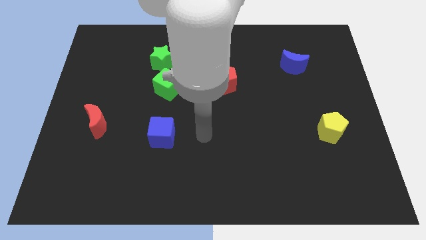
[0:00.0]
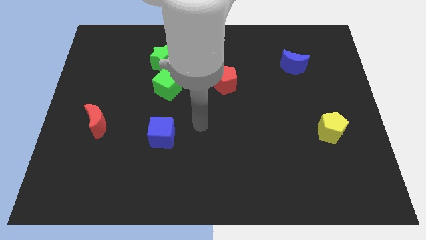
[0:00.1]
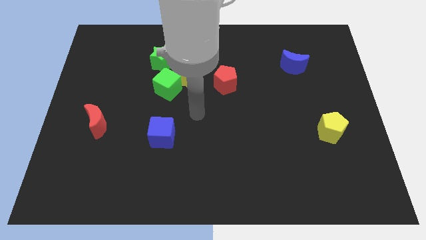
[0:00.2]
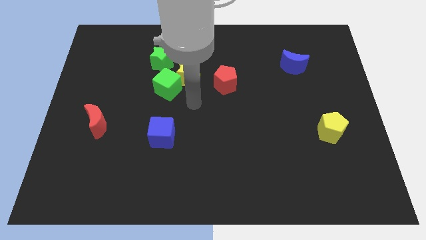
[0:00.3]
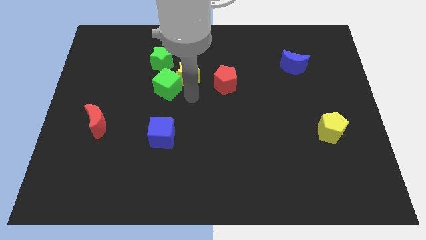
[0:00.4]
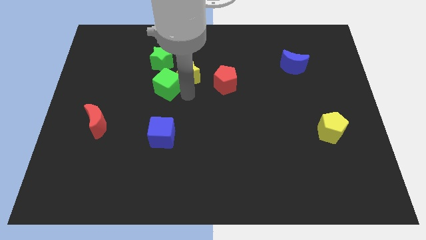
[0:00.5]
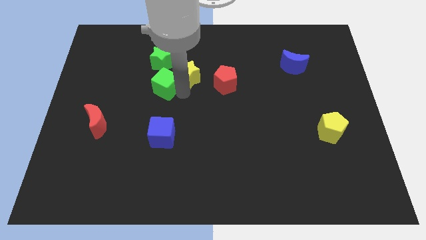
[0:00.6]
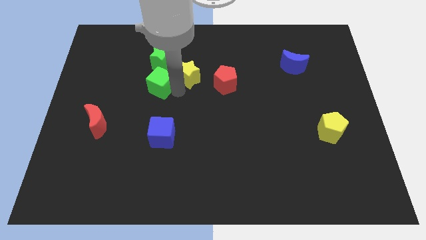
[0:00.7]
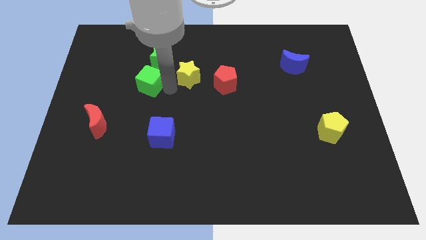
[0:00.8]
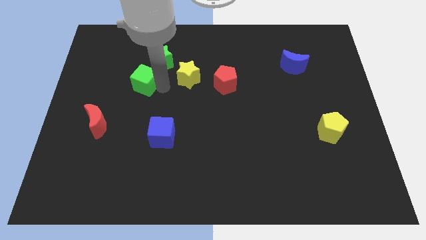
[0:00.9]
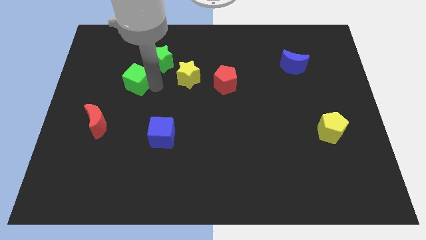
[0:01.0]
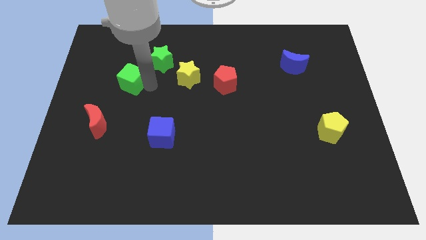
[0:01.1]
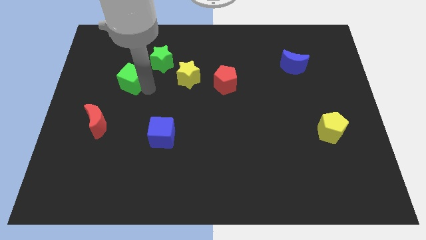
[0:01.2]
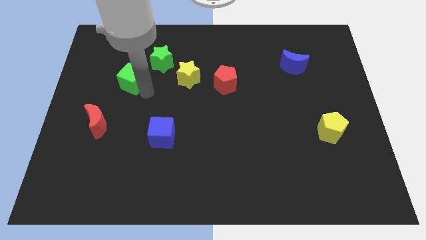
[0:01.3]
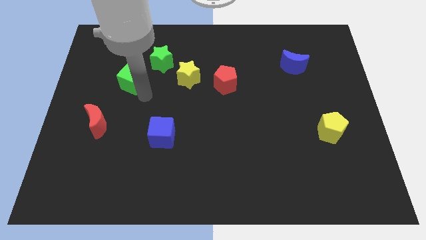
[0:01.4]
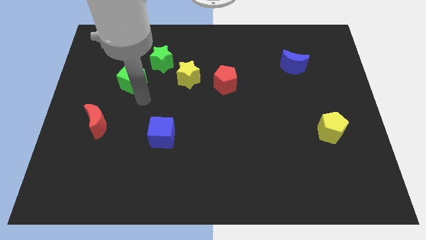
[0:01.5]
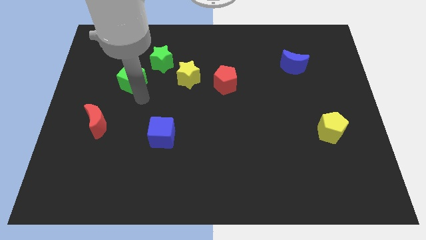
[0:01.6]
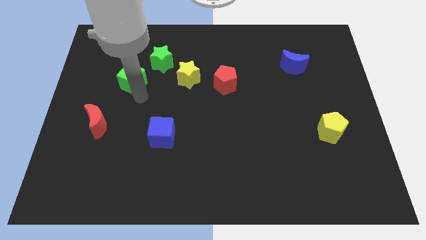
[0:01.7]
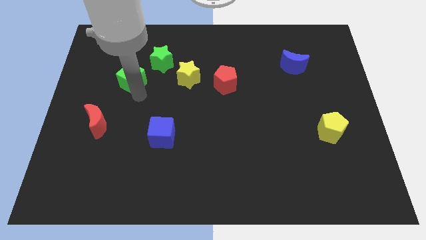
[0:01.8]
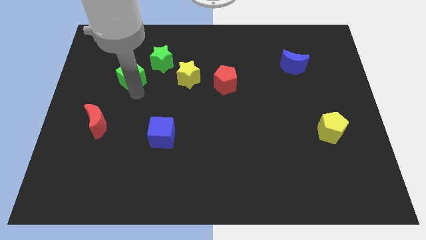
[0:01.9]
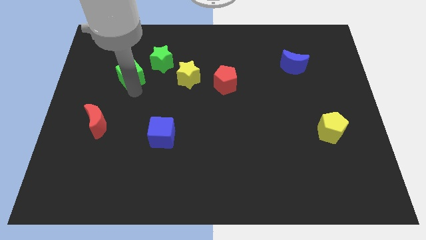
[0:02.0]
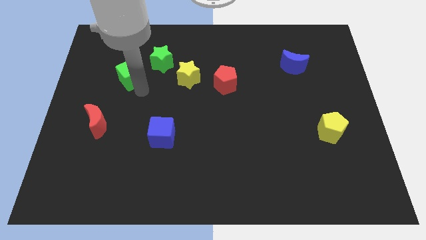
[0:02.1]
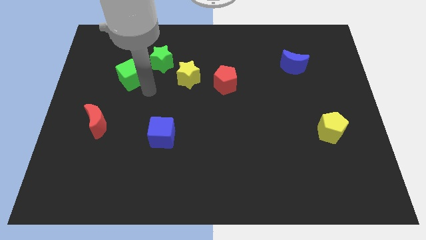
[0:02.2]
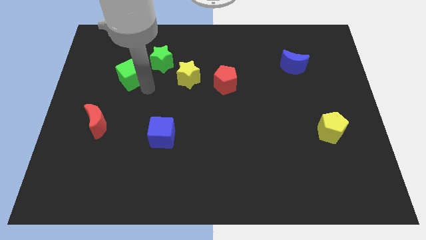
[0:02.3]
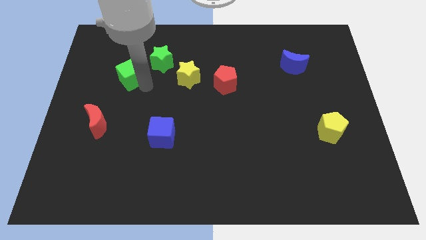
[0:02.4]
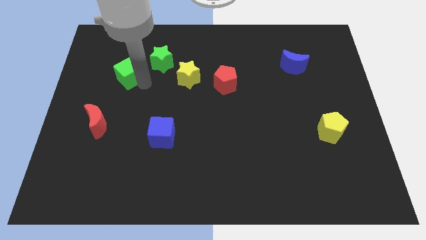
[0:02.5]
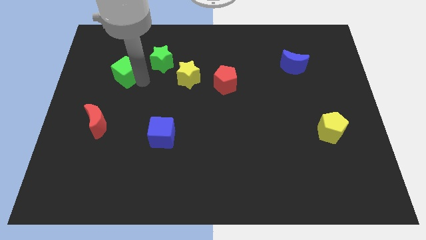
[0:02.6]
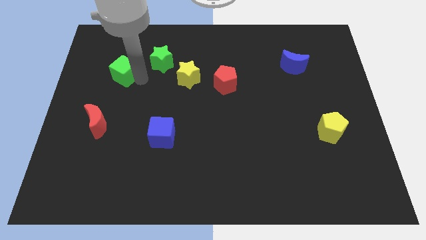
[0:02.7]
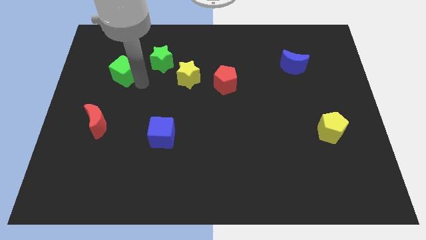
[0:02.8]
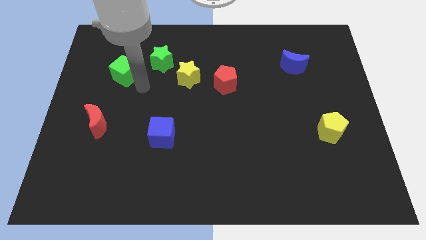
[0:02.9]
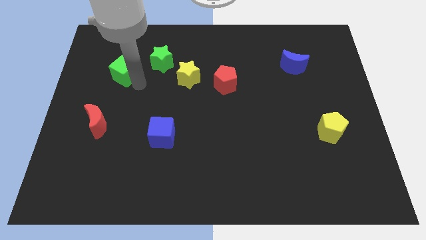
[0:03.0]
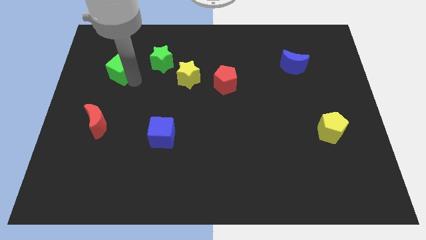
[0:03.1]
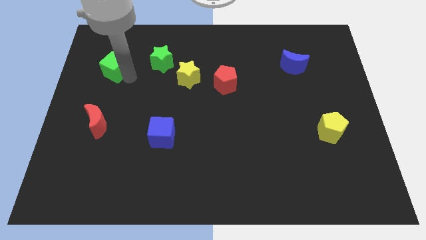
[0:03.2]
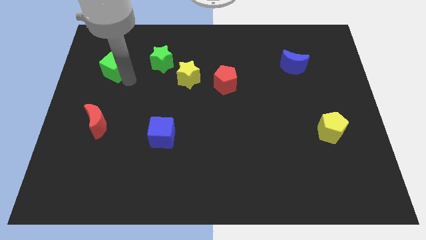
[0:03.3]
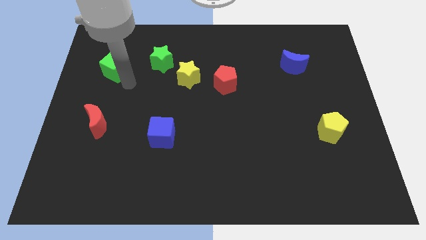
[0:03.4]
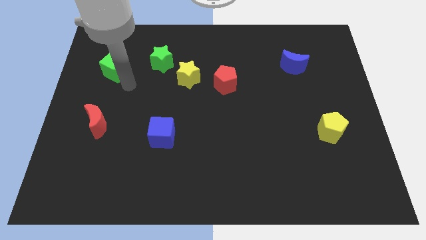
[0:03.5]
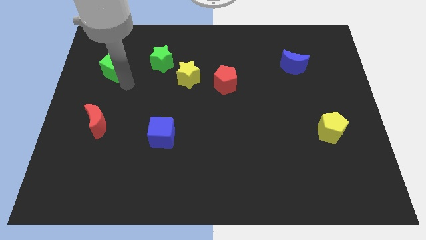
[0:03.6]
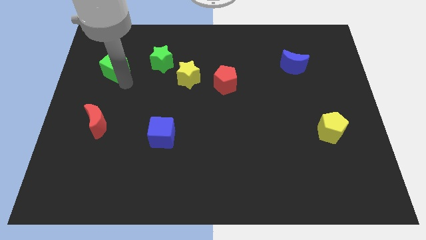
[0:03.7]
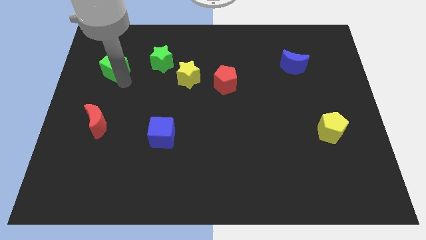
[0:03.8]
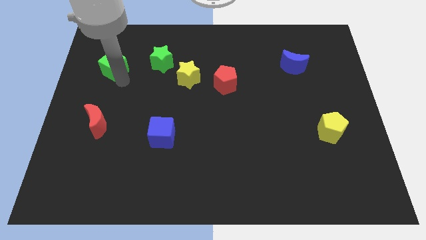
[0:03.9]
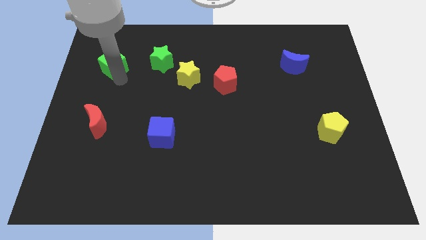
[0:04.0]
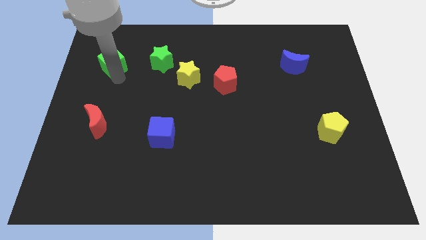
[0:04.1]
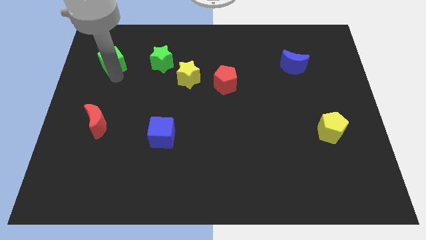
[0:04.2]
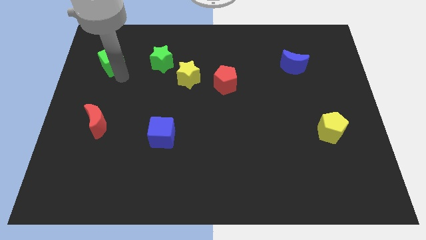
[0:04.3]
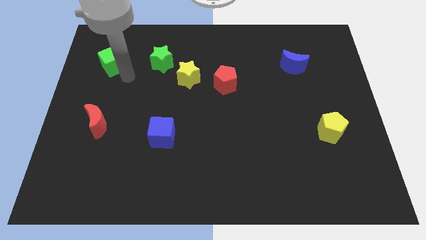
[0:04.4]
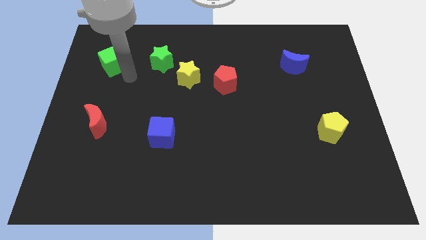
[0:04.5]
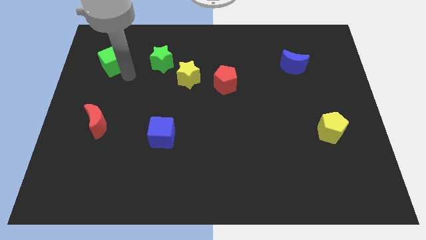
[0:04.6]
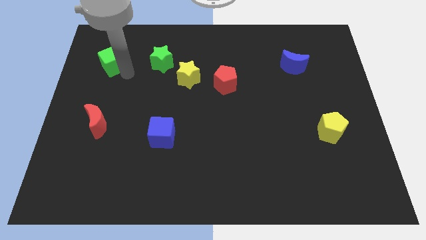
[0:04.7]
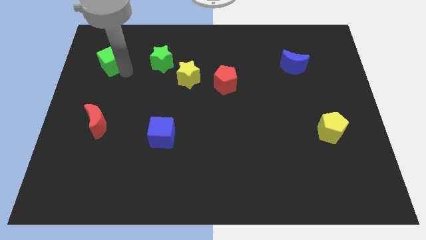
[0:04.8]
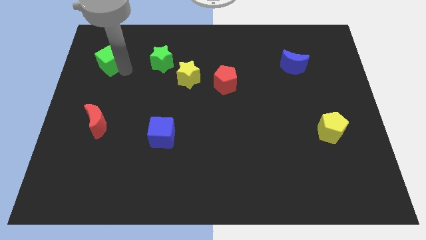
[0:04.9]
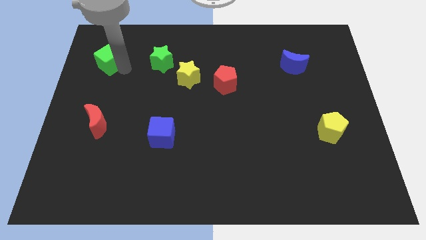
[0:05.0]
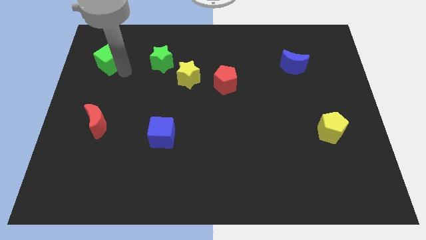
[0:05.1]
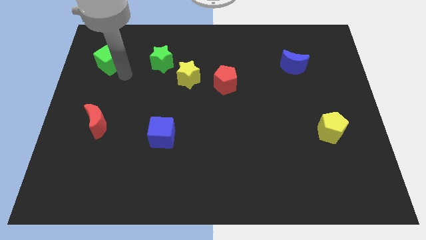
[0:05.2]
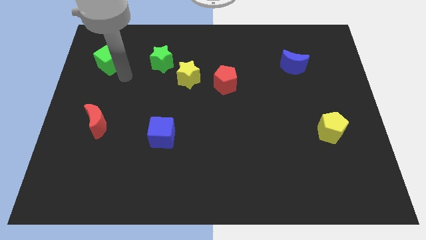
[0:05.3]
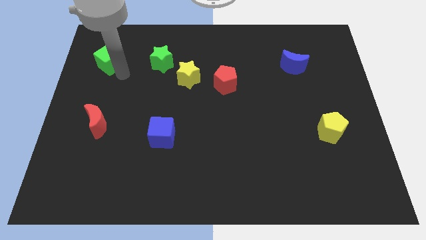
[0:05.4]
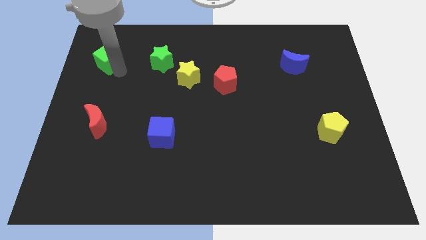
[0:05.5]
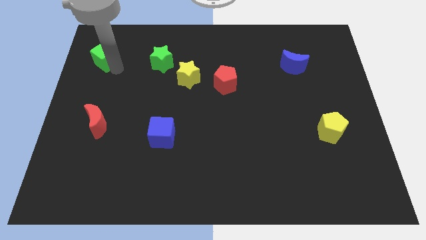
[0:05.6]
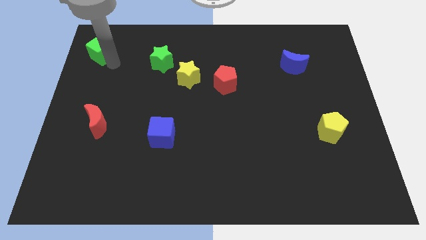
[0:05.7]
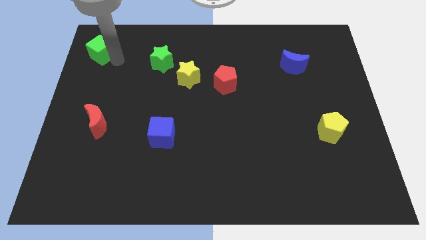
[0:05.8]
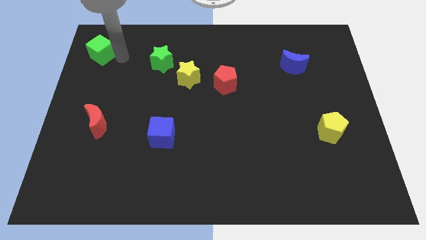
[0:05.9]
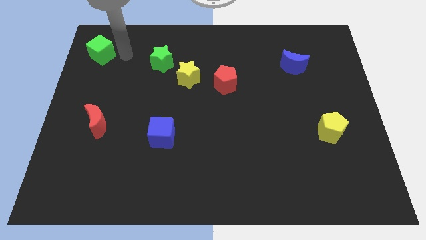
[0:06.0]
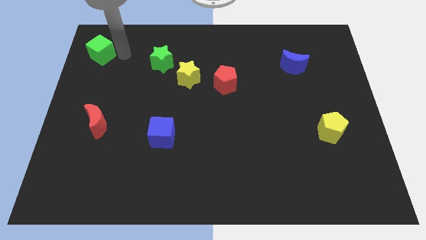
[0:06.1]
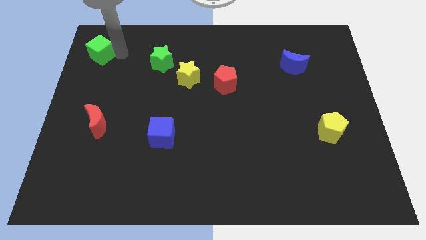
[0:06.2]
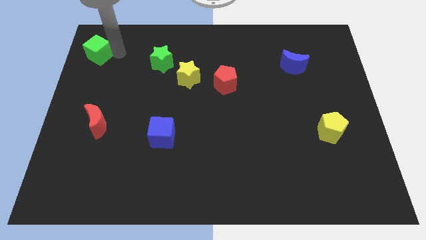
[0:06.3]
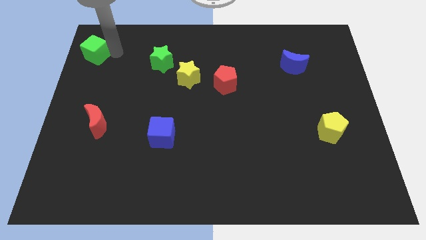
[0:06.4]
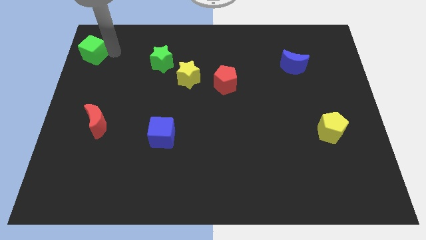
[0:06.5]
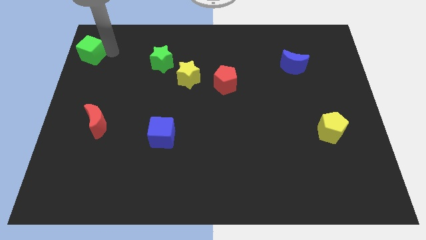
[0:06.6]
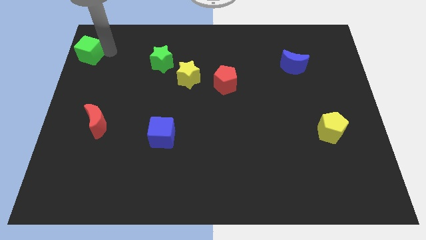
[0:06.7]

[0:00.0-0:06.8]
push the green cube to the upper left corner
